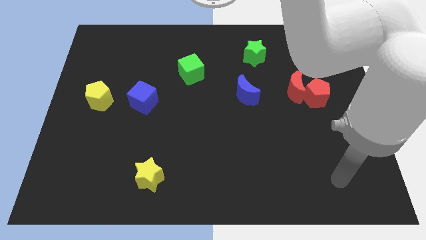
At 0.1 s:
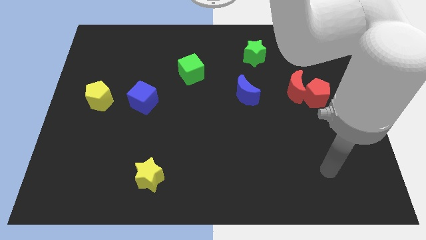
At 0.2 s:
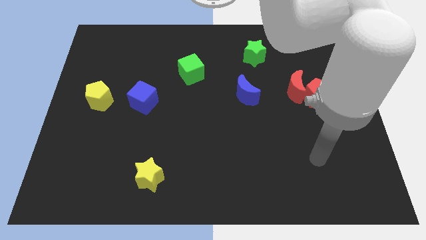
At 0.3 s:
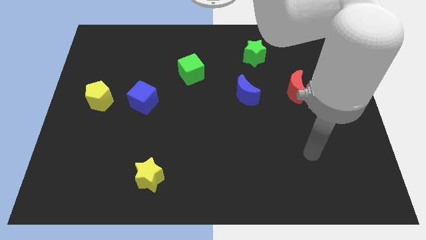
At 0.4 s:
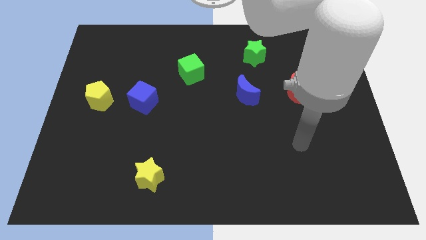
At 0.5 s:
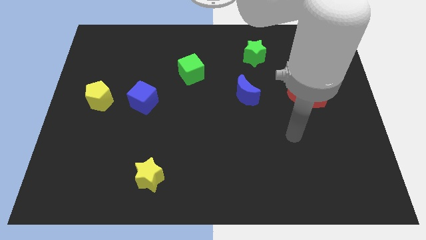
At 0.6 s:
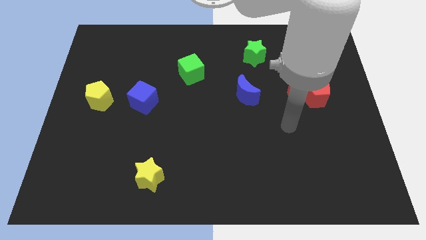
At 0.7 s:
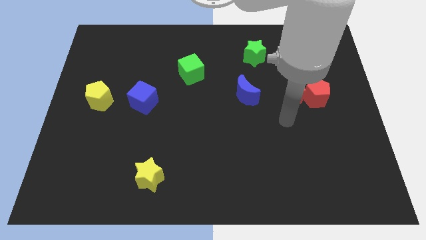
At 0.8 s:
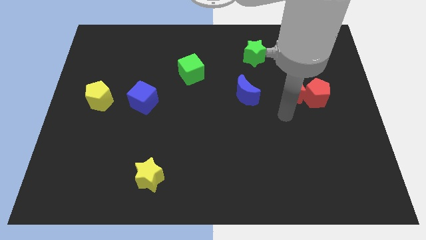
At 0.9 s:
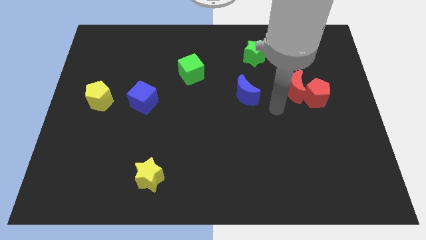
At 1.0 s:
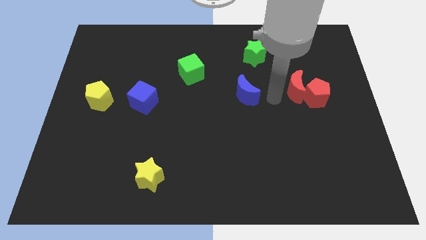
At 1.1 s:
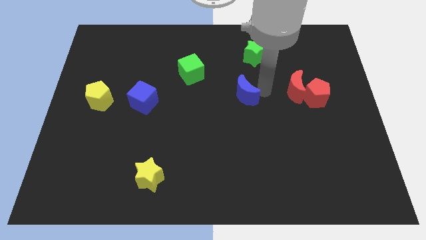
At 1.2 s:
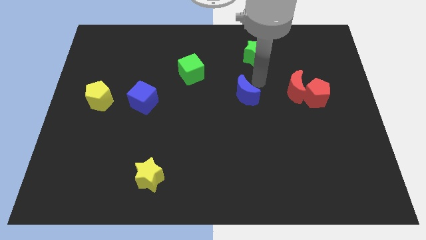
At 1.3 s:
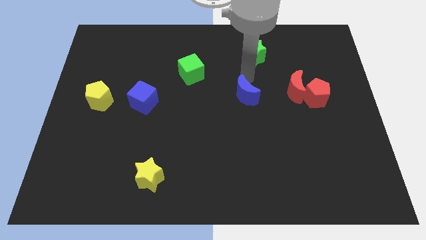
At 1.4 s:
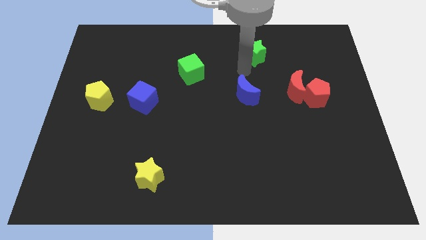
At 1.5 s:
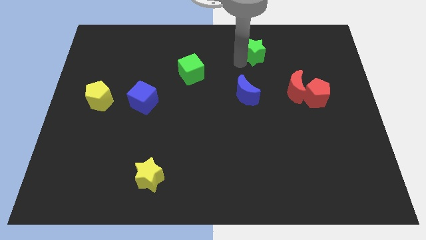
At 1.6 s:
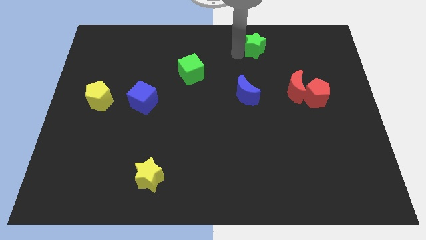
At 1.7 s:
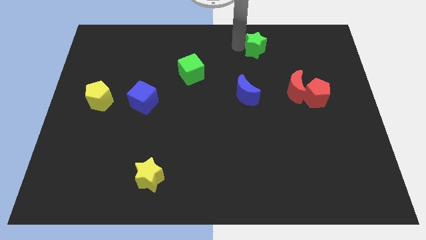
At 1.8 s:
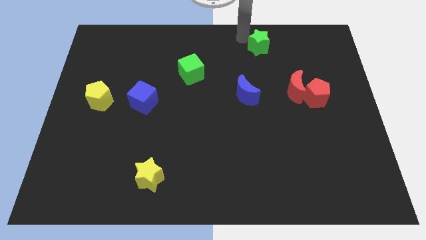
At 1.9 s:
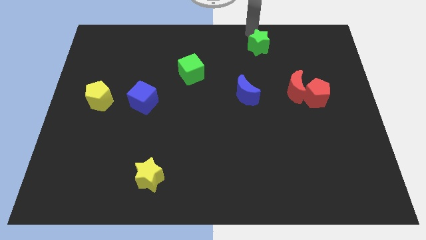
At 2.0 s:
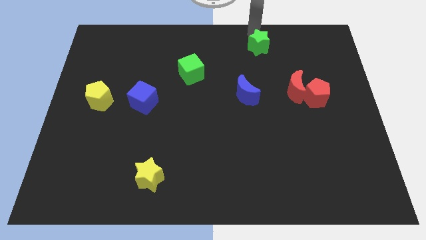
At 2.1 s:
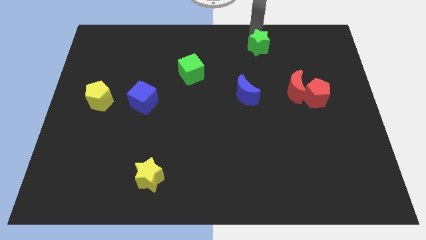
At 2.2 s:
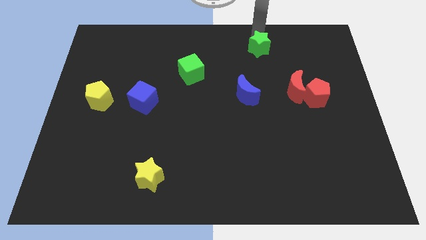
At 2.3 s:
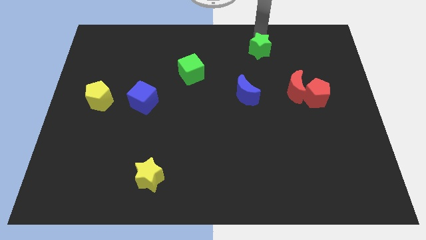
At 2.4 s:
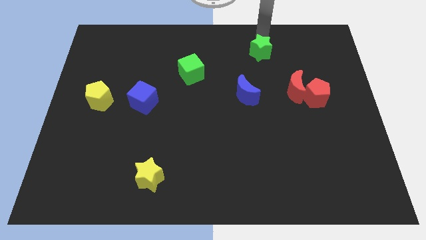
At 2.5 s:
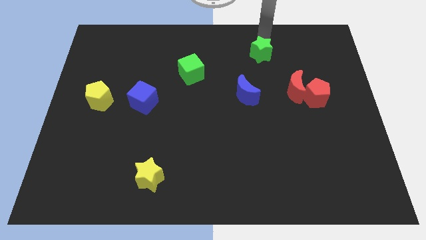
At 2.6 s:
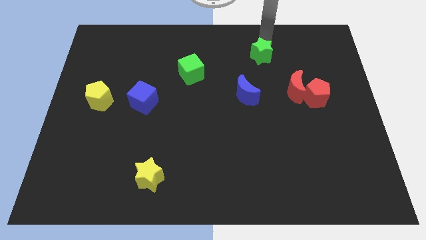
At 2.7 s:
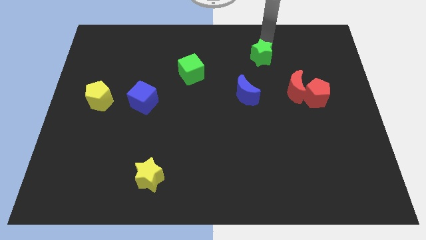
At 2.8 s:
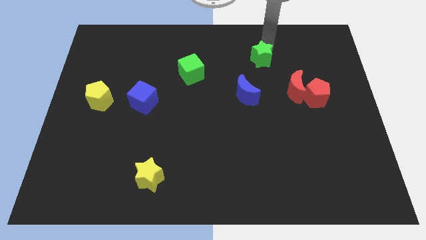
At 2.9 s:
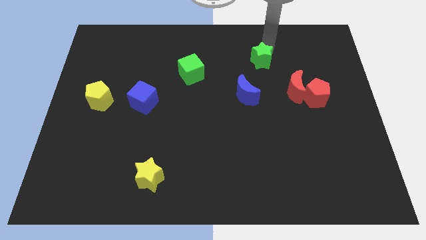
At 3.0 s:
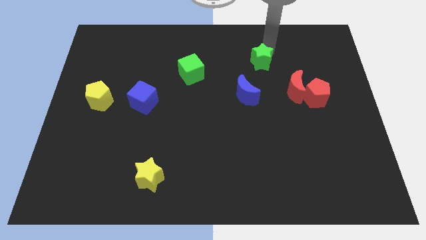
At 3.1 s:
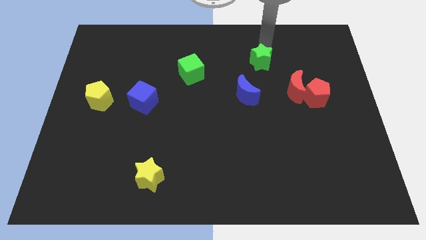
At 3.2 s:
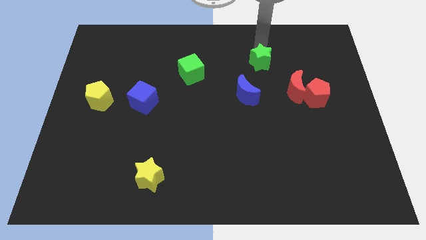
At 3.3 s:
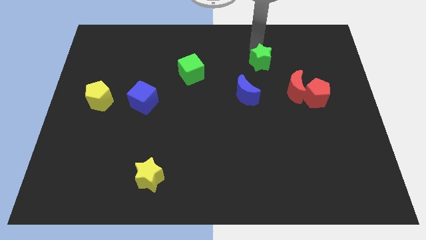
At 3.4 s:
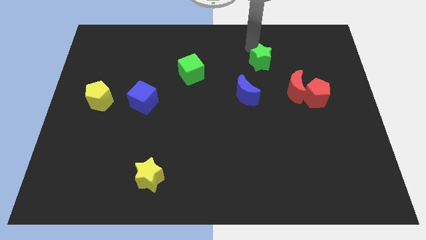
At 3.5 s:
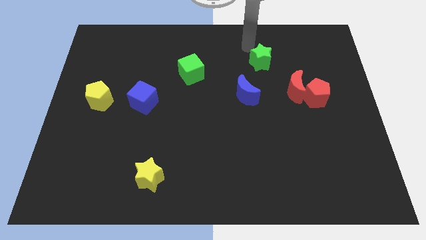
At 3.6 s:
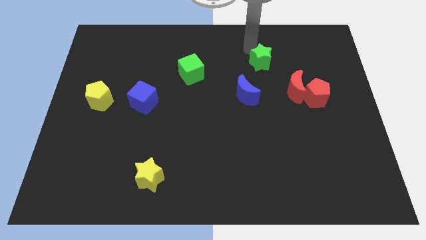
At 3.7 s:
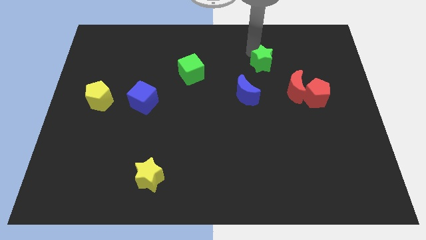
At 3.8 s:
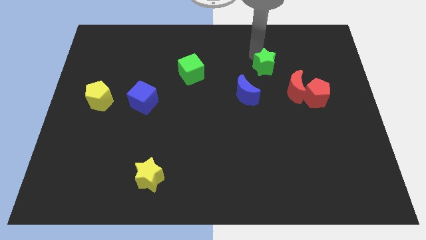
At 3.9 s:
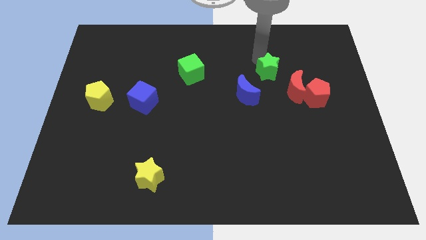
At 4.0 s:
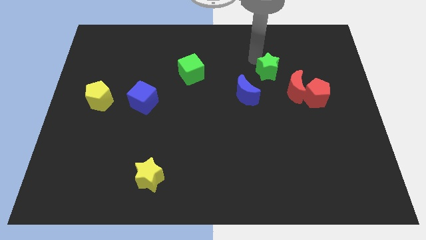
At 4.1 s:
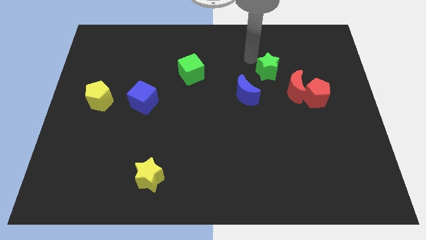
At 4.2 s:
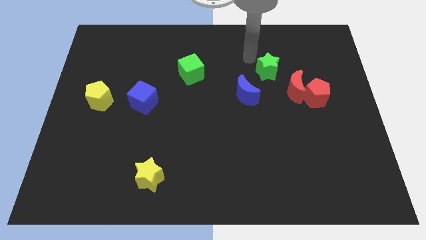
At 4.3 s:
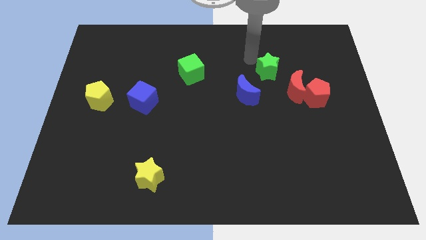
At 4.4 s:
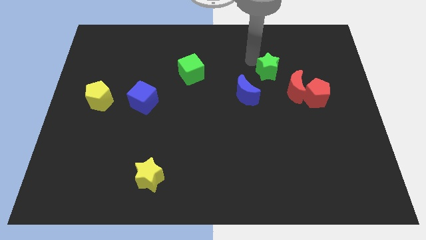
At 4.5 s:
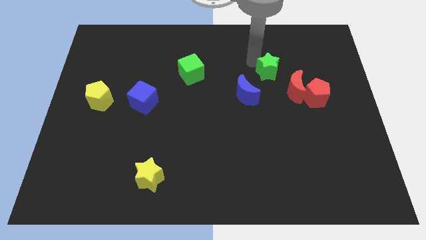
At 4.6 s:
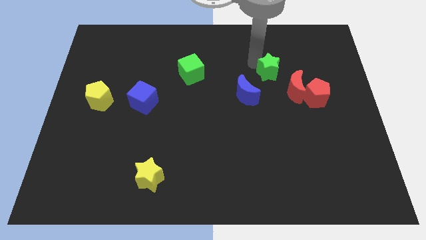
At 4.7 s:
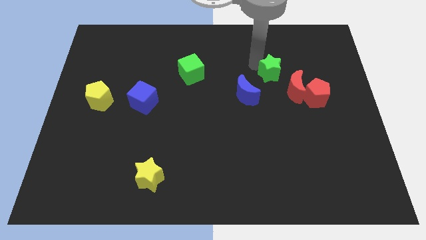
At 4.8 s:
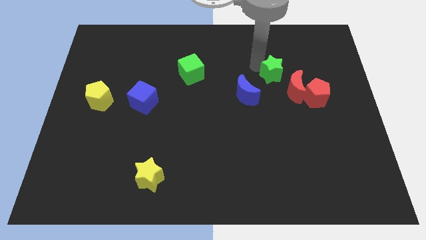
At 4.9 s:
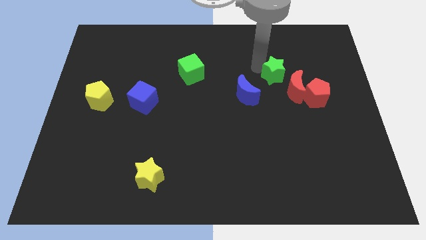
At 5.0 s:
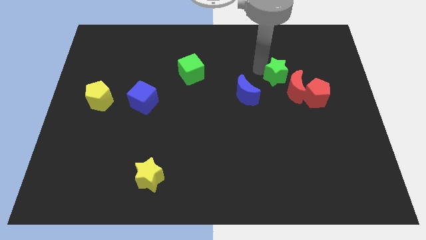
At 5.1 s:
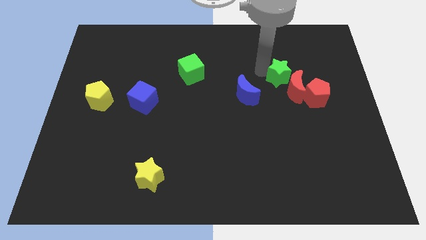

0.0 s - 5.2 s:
put the green star close to the red moon

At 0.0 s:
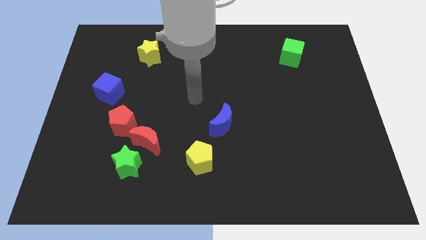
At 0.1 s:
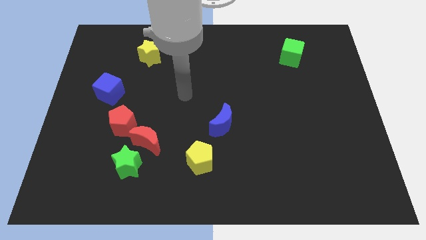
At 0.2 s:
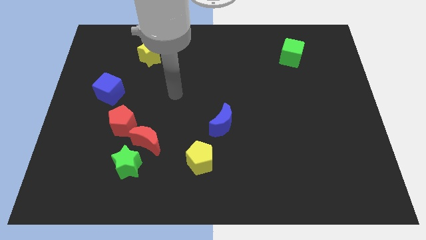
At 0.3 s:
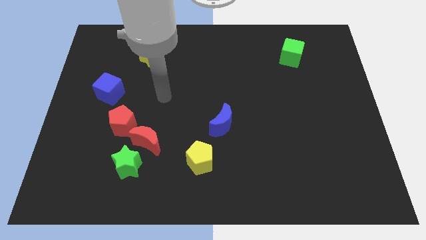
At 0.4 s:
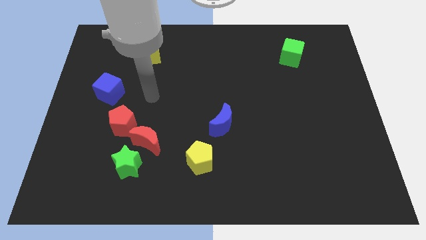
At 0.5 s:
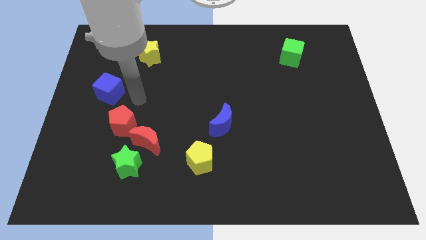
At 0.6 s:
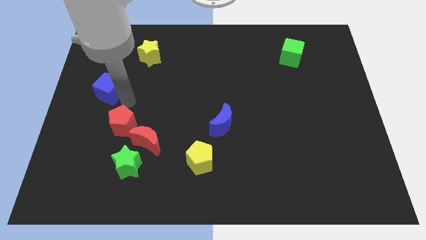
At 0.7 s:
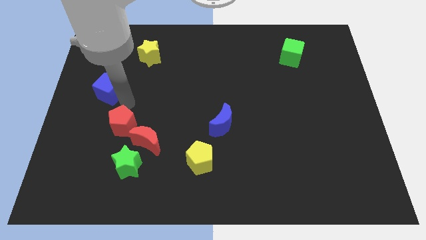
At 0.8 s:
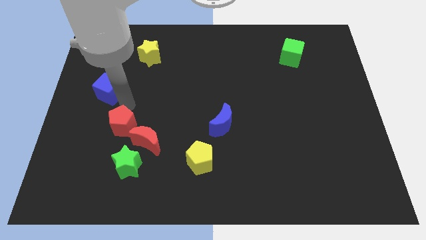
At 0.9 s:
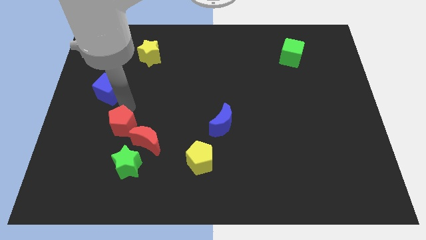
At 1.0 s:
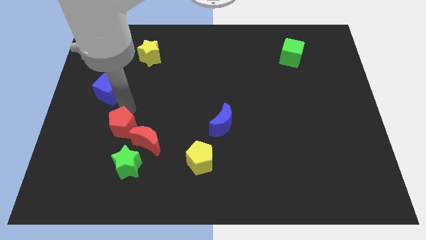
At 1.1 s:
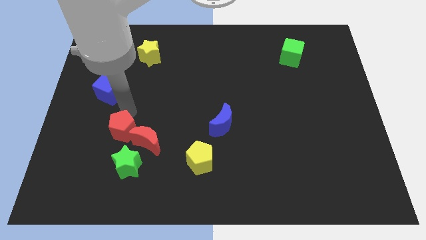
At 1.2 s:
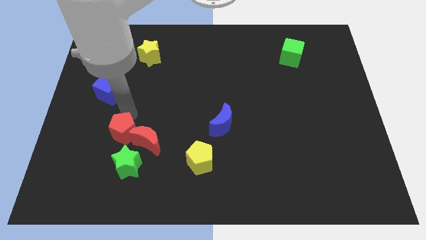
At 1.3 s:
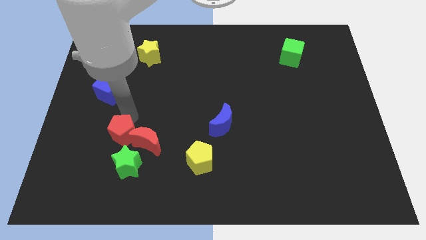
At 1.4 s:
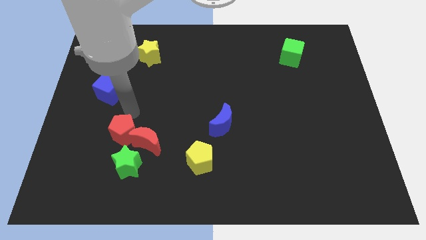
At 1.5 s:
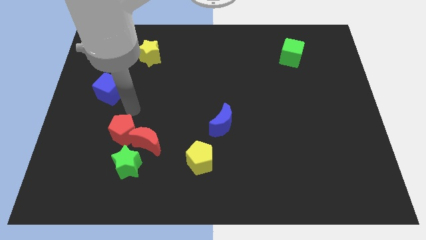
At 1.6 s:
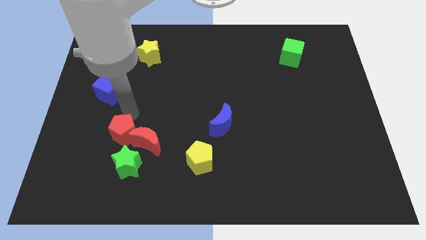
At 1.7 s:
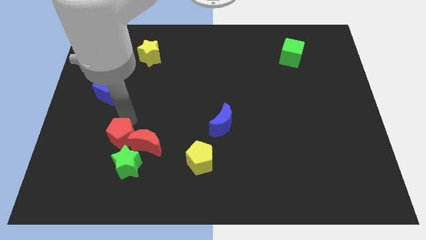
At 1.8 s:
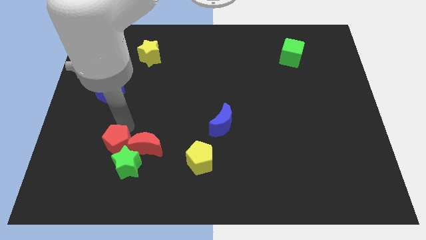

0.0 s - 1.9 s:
move the red pentagon next to the green star
